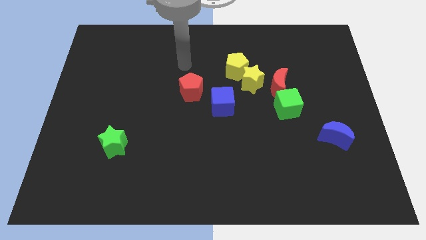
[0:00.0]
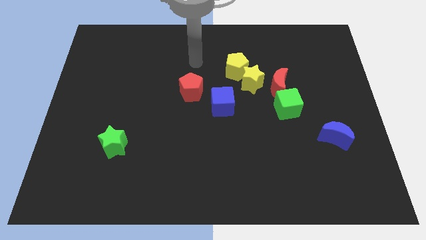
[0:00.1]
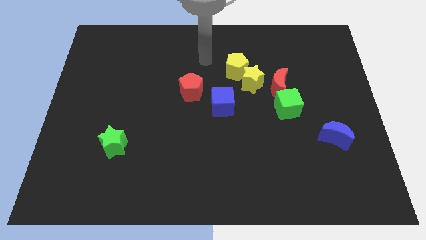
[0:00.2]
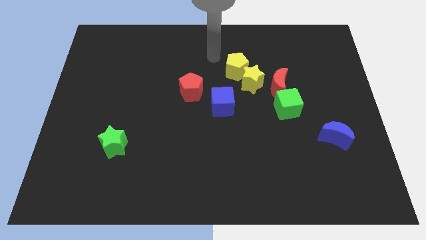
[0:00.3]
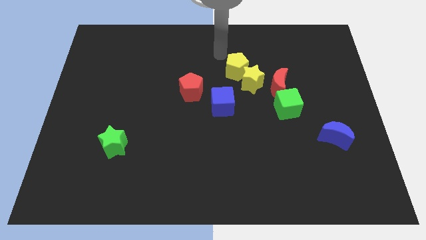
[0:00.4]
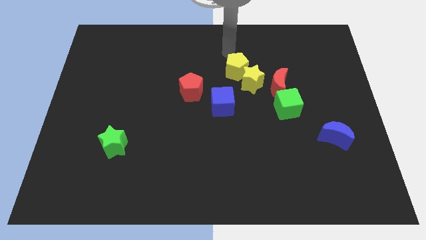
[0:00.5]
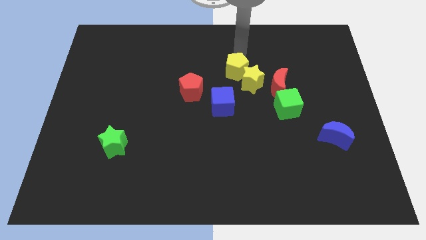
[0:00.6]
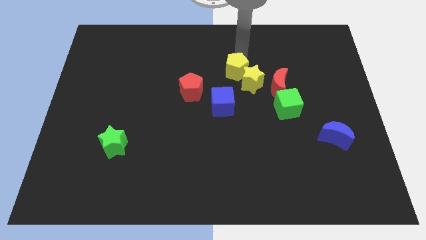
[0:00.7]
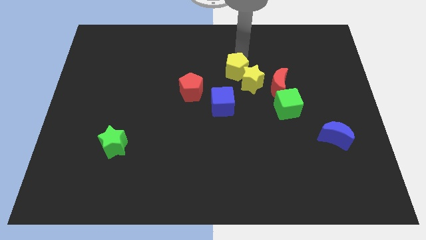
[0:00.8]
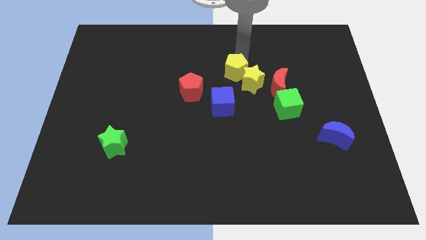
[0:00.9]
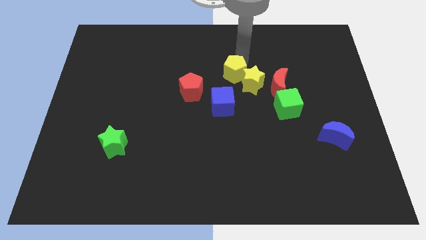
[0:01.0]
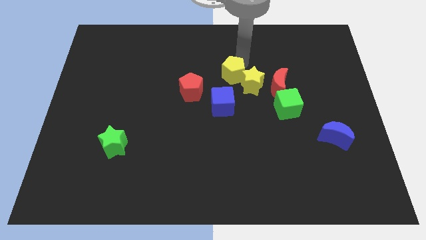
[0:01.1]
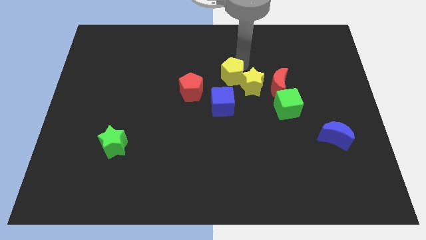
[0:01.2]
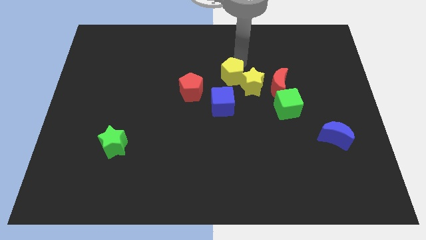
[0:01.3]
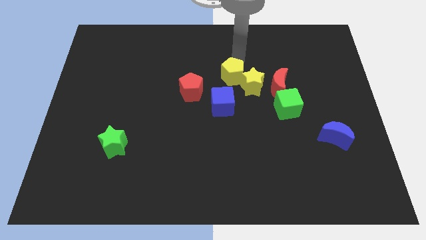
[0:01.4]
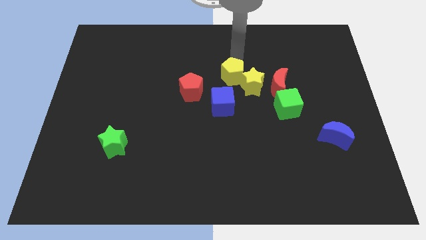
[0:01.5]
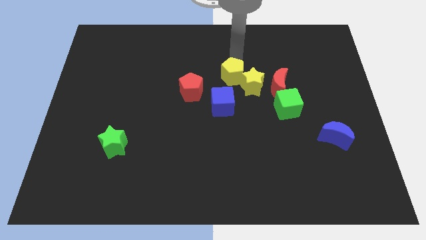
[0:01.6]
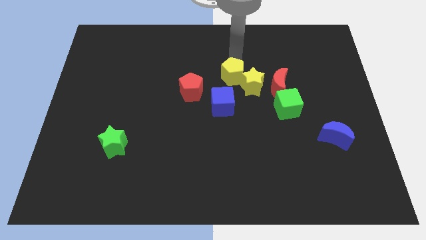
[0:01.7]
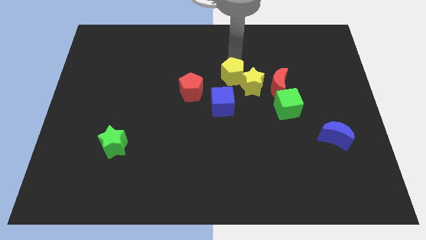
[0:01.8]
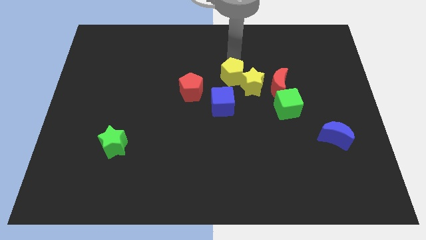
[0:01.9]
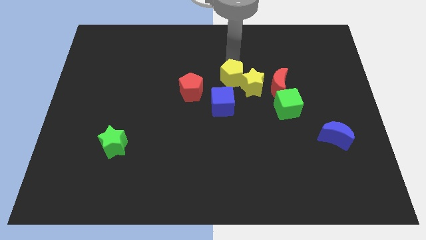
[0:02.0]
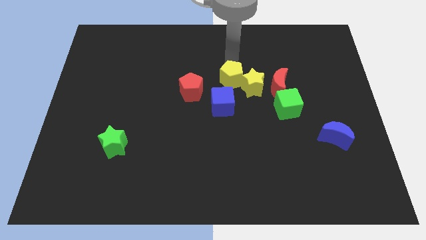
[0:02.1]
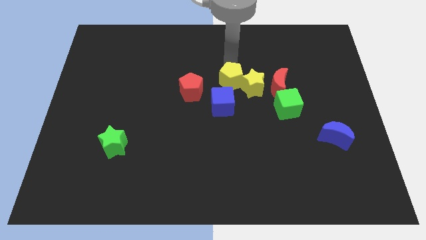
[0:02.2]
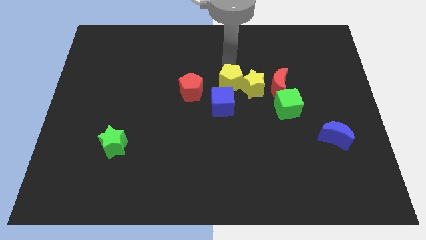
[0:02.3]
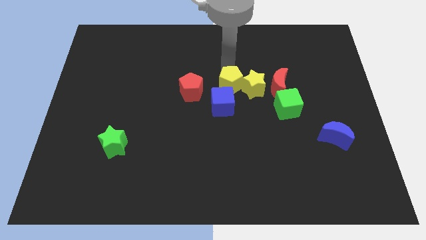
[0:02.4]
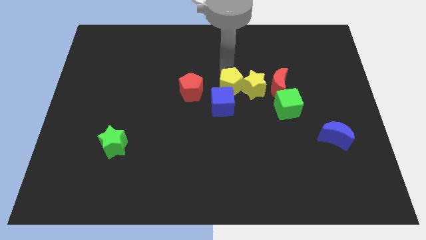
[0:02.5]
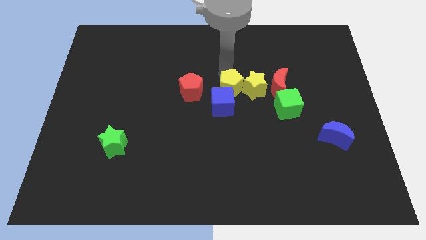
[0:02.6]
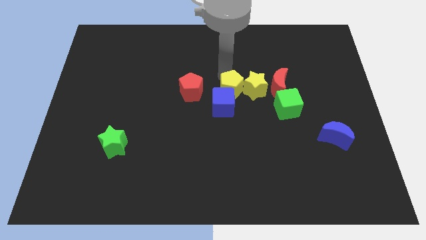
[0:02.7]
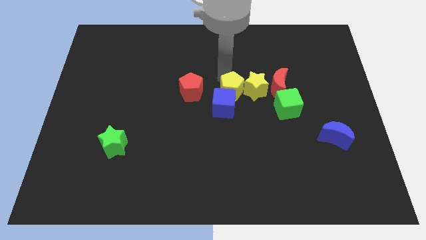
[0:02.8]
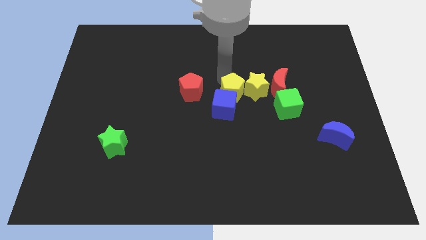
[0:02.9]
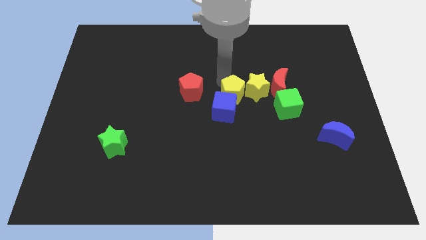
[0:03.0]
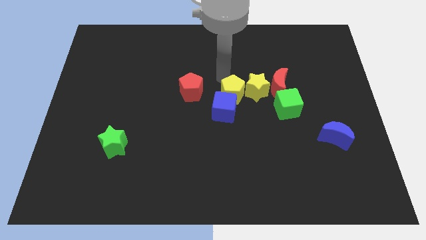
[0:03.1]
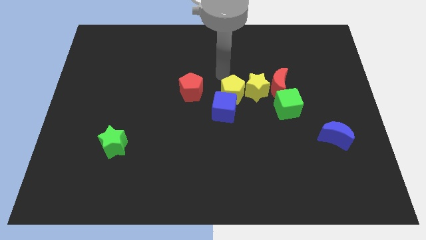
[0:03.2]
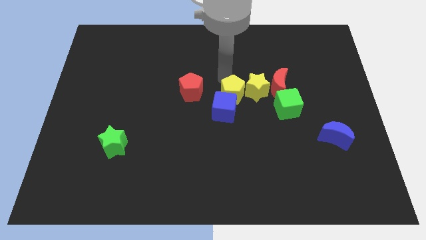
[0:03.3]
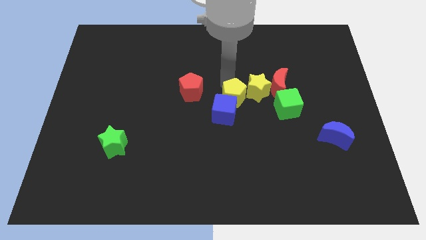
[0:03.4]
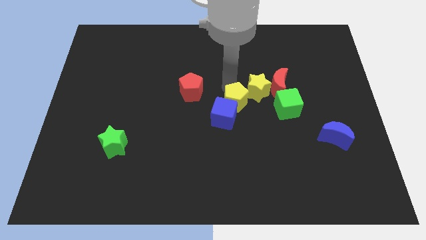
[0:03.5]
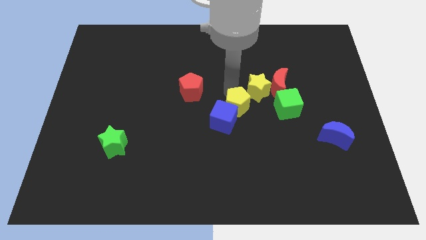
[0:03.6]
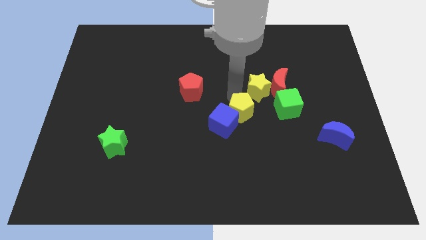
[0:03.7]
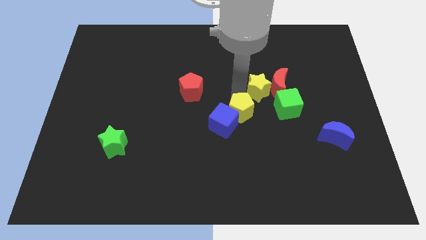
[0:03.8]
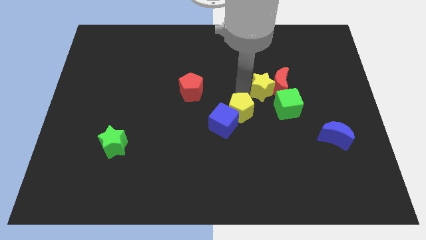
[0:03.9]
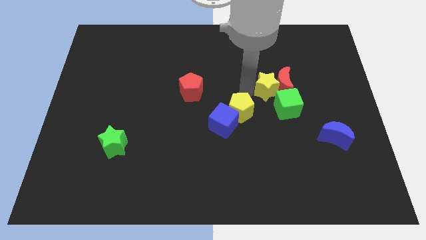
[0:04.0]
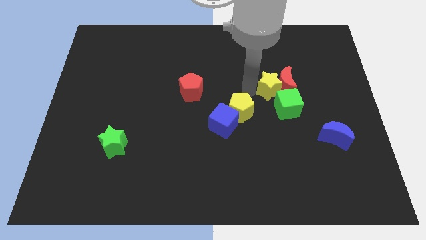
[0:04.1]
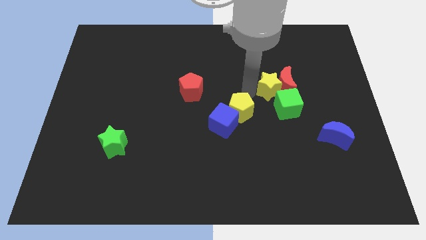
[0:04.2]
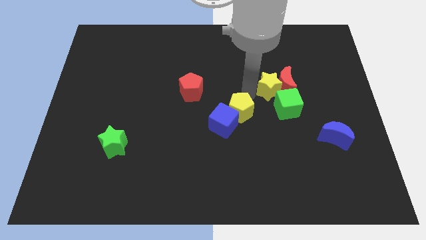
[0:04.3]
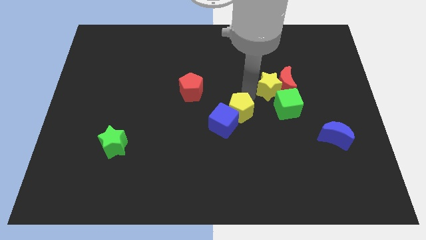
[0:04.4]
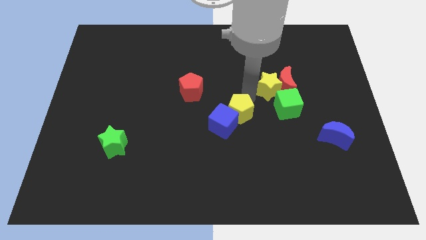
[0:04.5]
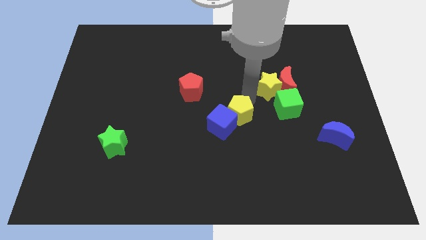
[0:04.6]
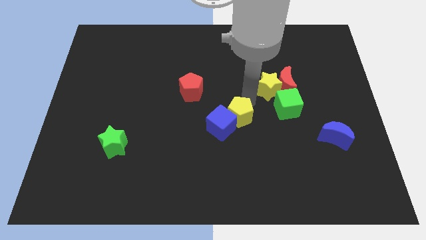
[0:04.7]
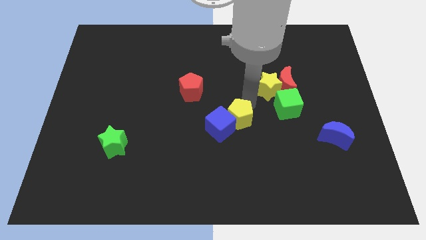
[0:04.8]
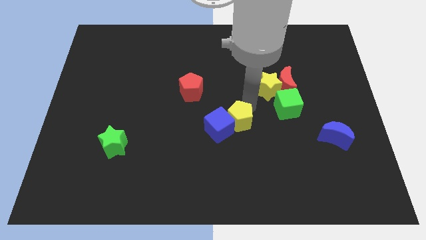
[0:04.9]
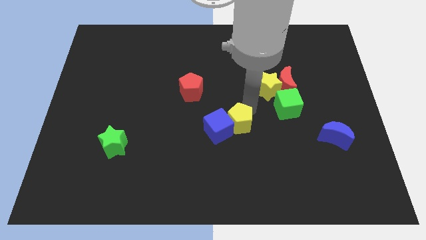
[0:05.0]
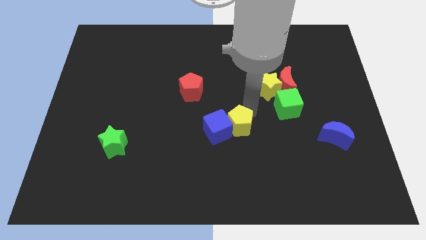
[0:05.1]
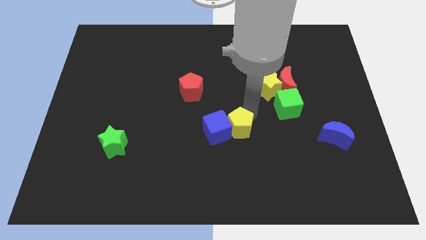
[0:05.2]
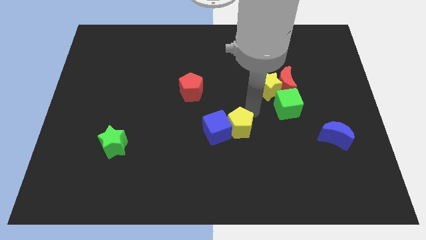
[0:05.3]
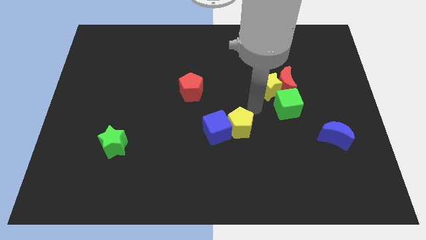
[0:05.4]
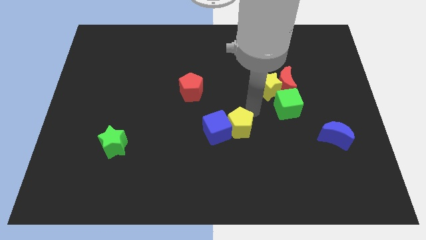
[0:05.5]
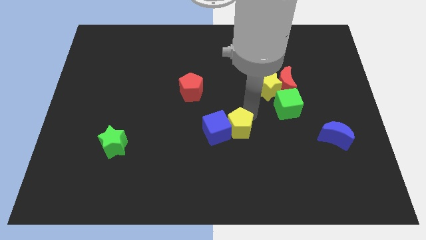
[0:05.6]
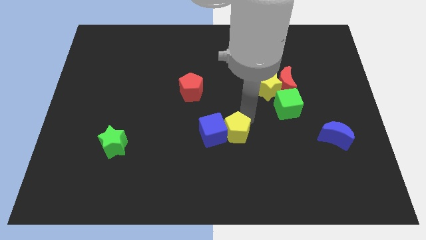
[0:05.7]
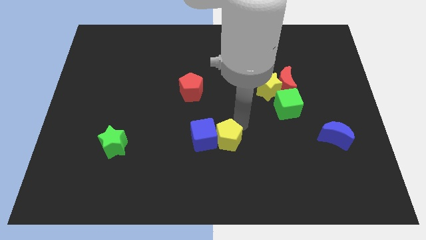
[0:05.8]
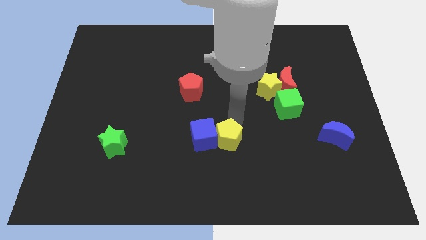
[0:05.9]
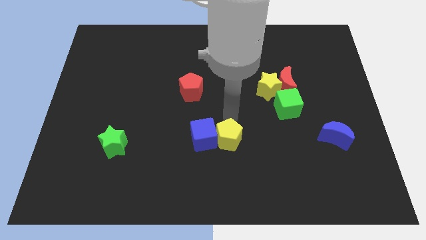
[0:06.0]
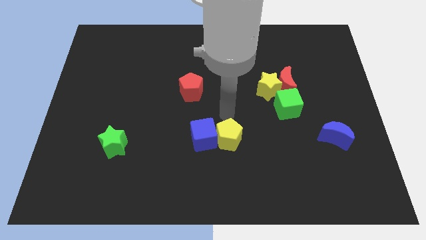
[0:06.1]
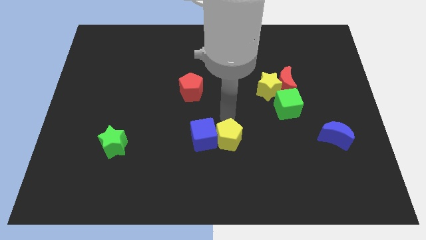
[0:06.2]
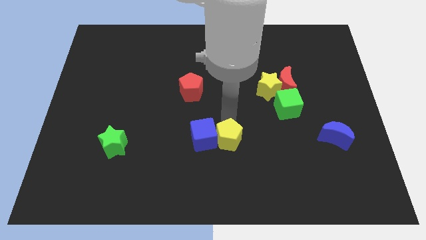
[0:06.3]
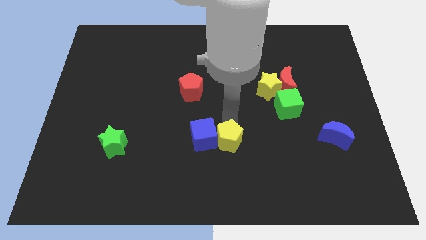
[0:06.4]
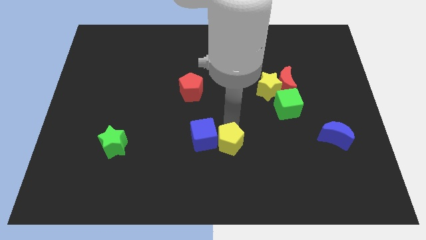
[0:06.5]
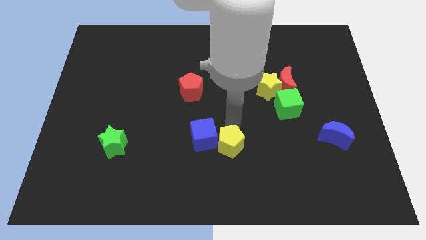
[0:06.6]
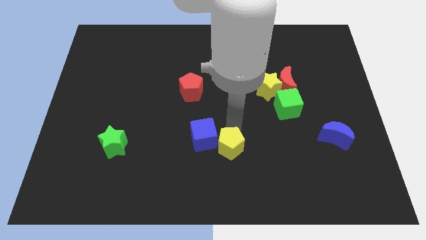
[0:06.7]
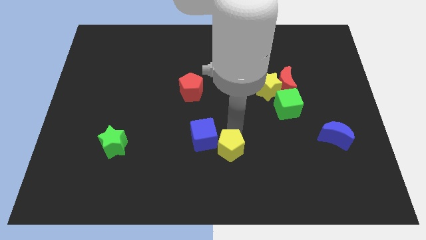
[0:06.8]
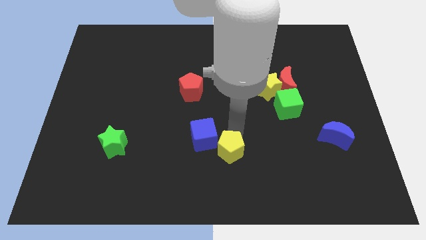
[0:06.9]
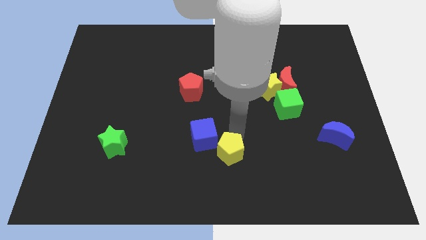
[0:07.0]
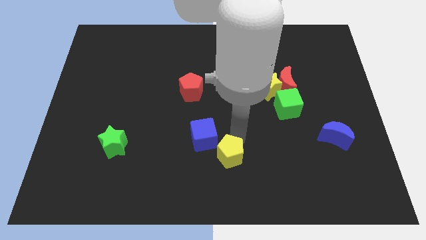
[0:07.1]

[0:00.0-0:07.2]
put the yellow pentagon to the bottom
